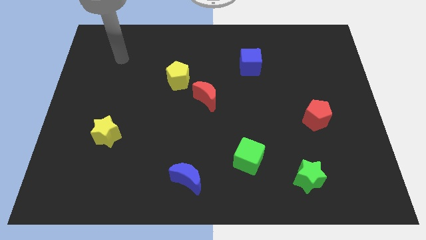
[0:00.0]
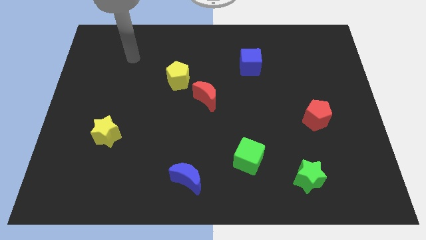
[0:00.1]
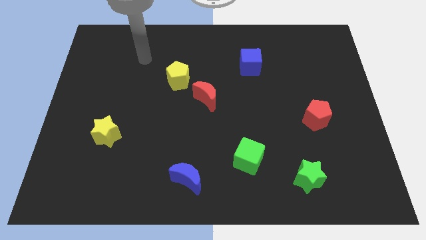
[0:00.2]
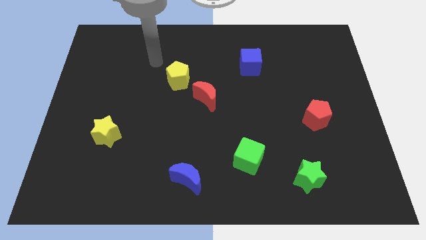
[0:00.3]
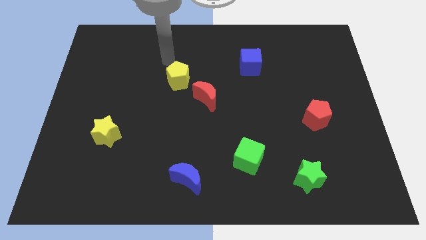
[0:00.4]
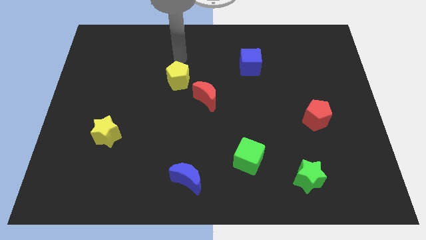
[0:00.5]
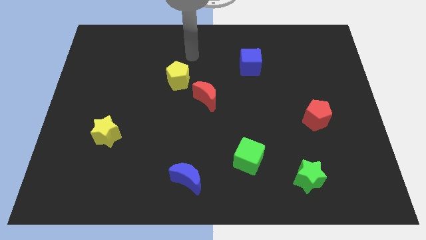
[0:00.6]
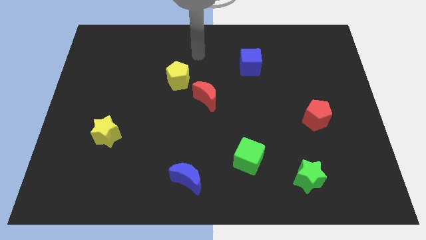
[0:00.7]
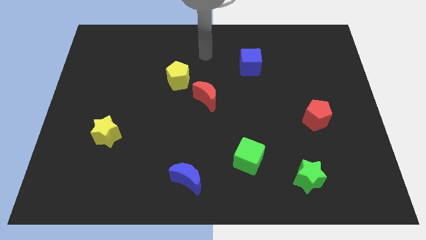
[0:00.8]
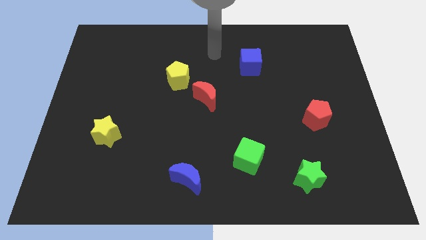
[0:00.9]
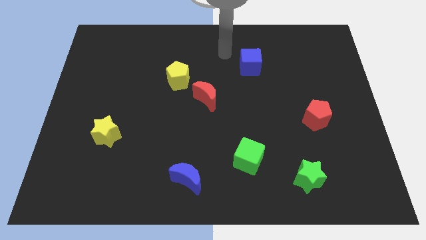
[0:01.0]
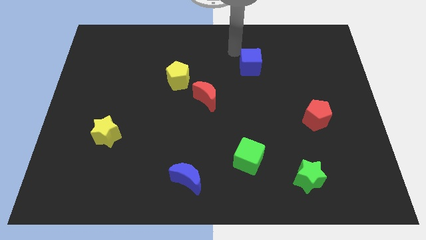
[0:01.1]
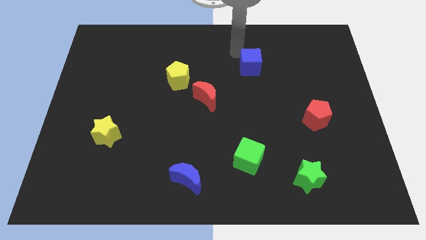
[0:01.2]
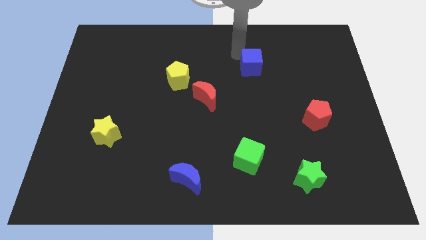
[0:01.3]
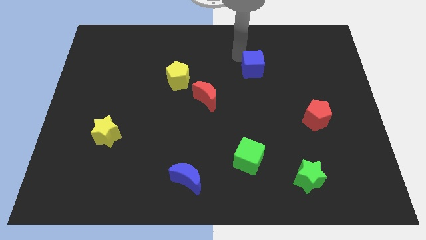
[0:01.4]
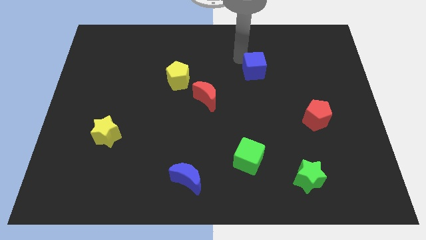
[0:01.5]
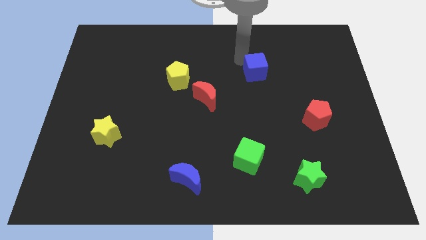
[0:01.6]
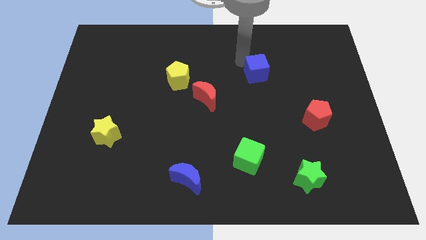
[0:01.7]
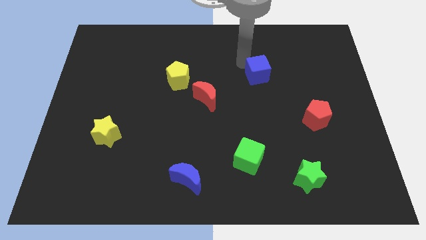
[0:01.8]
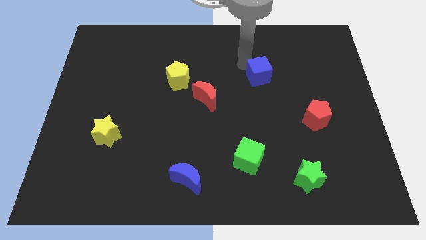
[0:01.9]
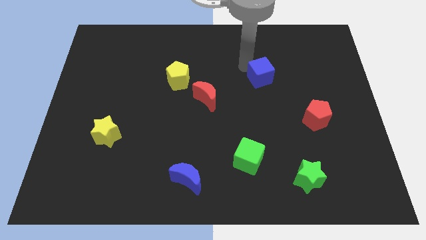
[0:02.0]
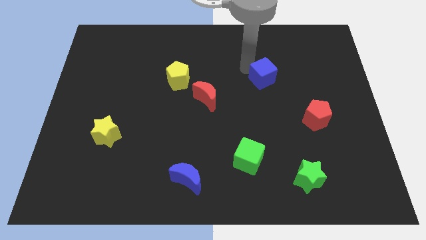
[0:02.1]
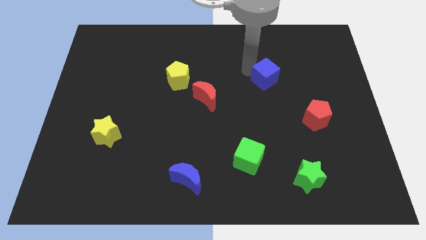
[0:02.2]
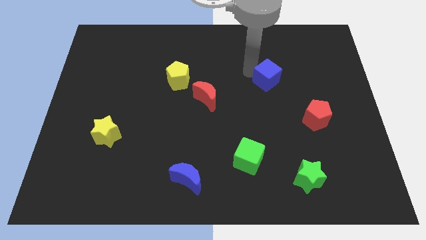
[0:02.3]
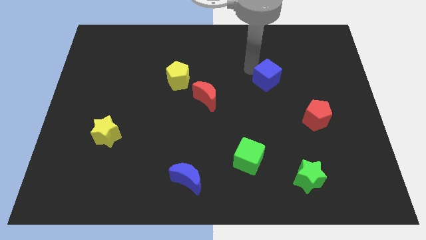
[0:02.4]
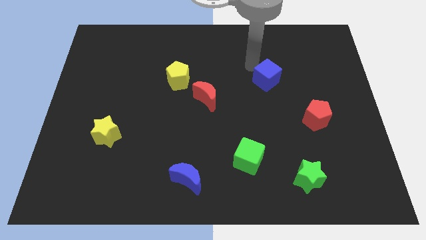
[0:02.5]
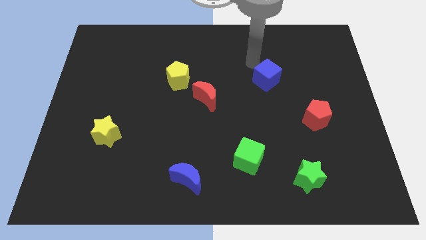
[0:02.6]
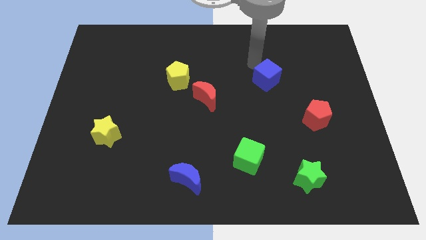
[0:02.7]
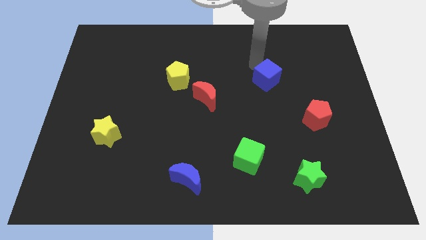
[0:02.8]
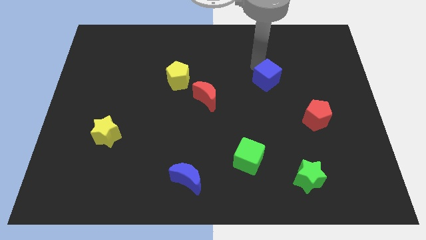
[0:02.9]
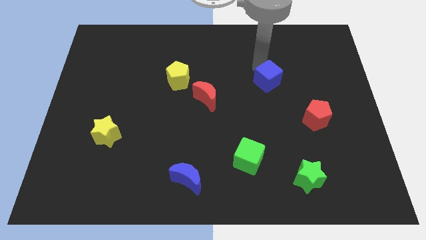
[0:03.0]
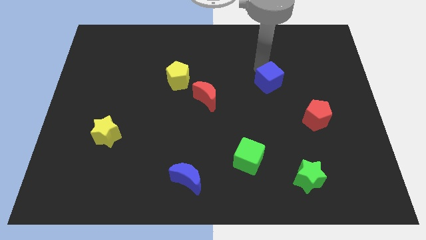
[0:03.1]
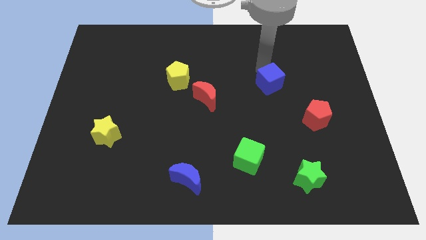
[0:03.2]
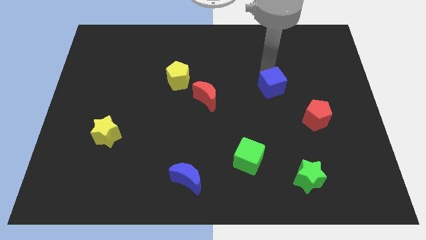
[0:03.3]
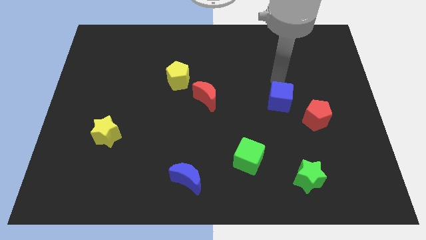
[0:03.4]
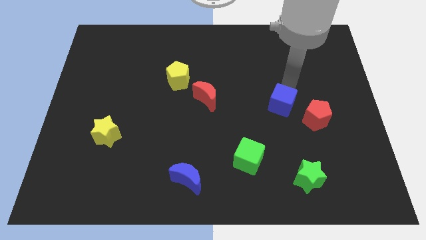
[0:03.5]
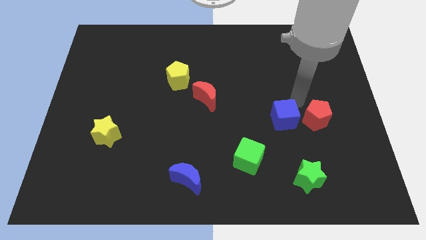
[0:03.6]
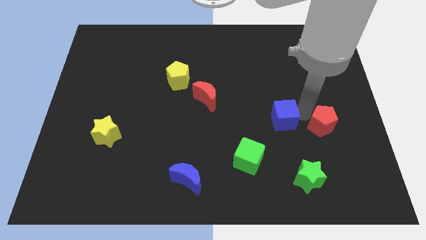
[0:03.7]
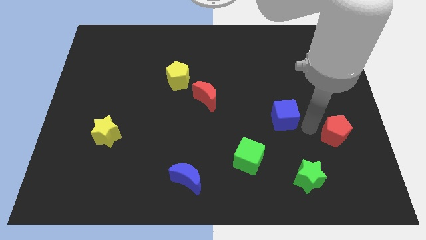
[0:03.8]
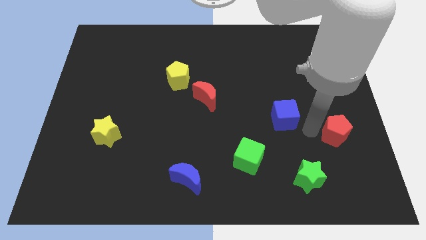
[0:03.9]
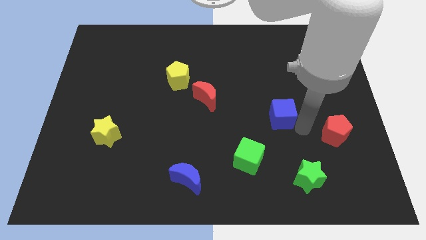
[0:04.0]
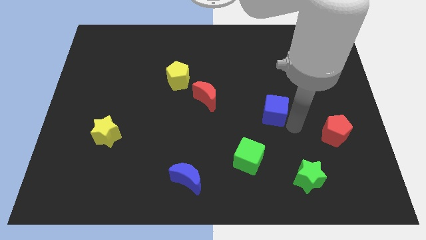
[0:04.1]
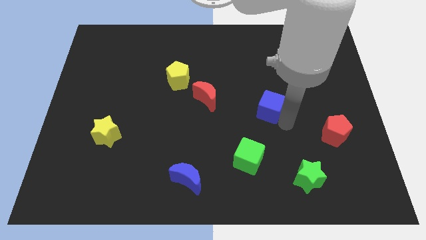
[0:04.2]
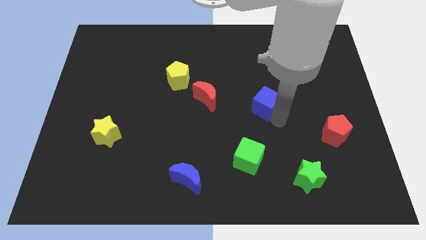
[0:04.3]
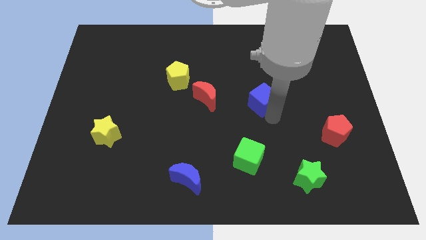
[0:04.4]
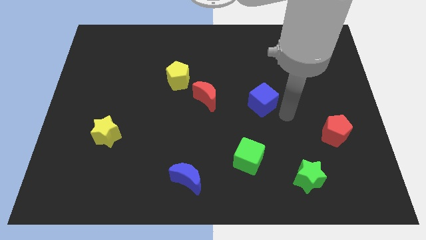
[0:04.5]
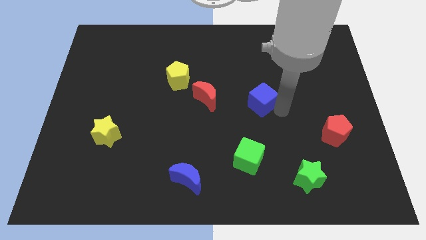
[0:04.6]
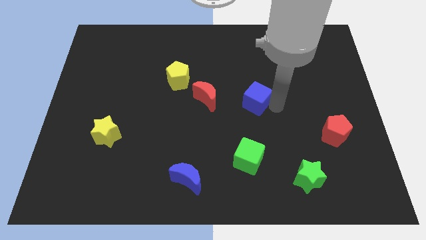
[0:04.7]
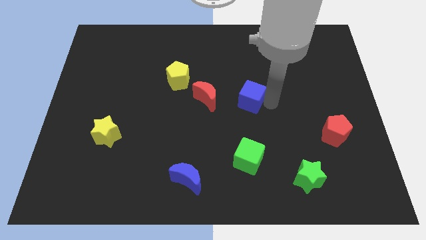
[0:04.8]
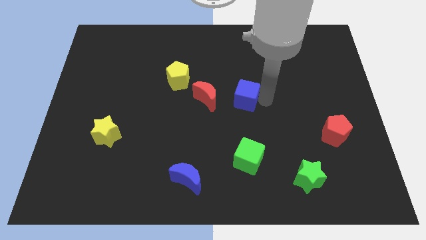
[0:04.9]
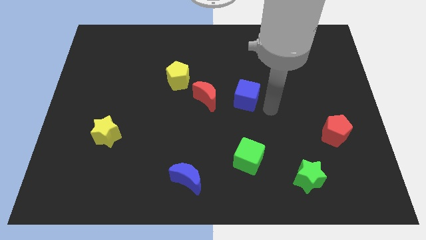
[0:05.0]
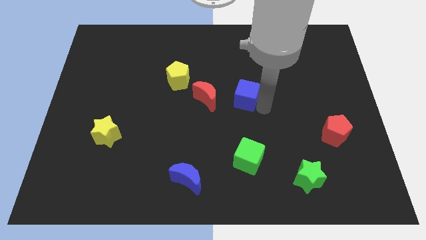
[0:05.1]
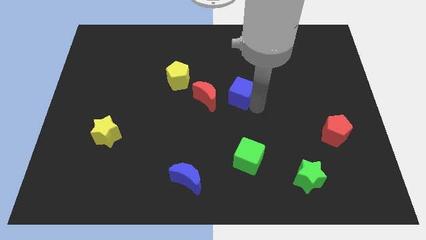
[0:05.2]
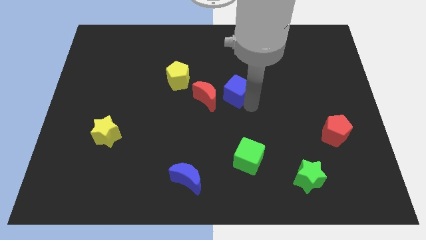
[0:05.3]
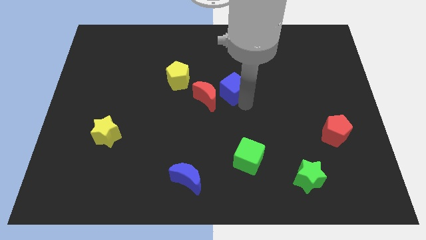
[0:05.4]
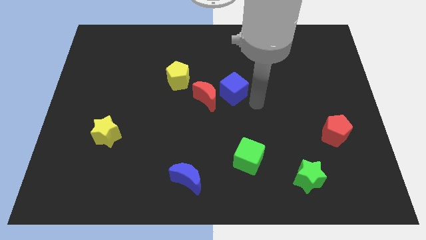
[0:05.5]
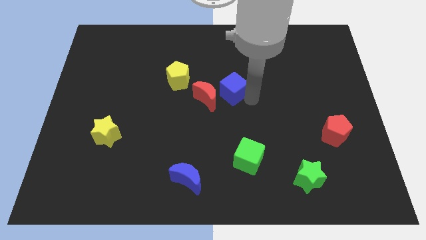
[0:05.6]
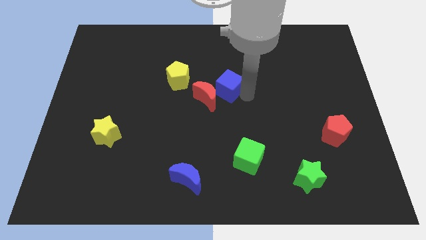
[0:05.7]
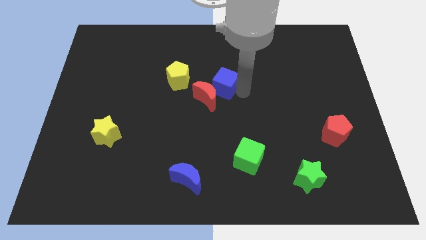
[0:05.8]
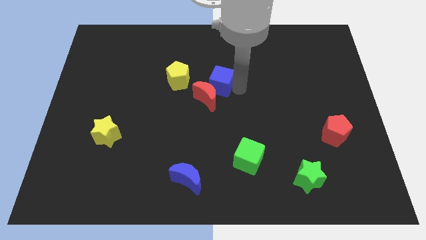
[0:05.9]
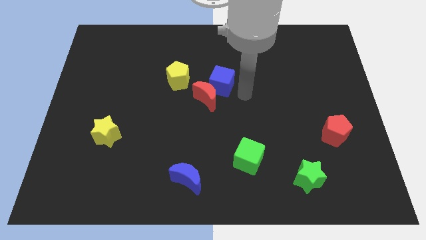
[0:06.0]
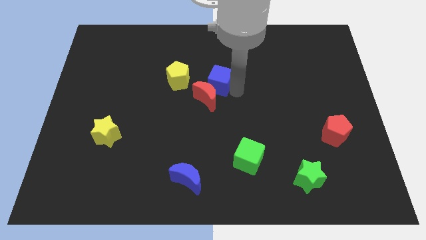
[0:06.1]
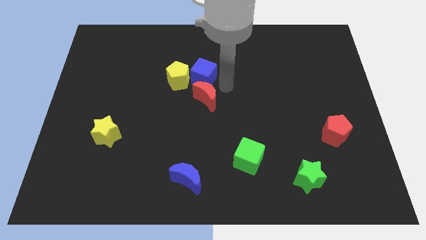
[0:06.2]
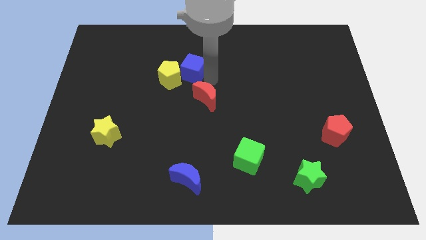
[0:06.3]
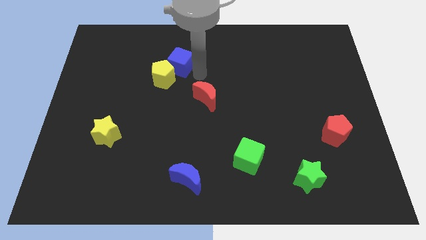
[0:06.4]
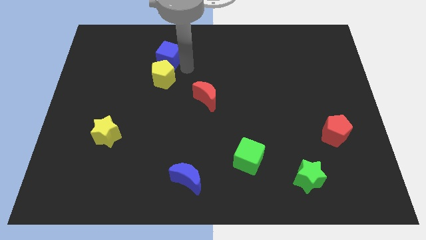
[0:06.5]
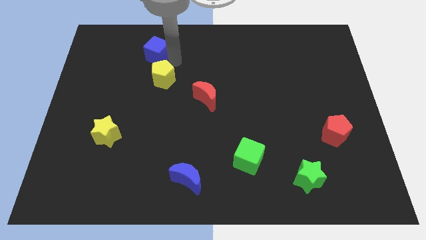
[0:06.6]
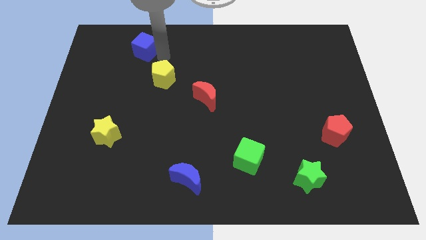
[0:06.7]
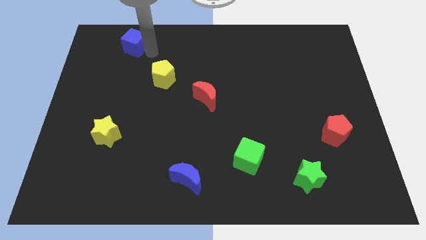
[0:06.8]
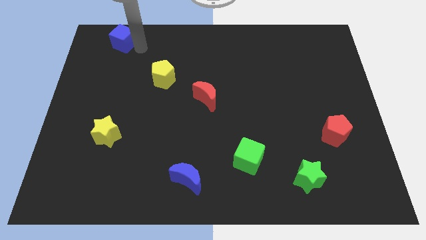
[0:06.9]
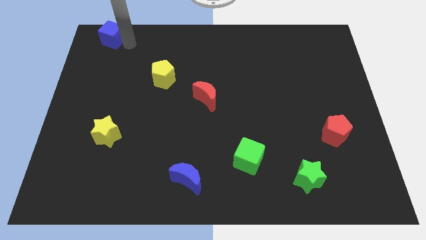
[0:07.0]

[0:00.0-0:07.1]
put the blue cube to the top left of the board
